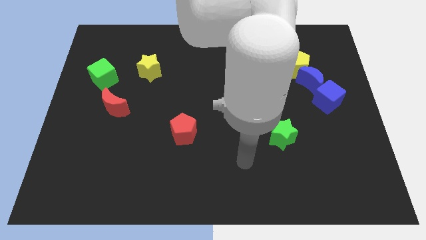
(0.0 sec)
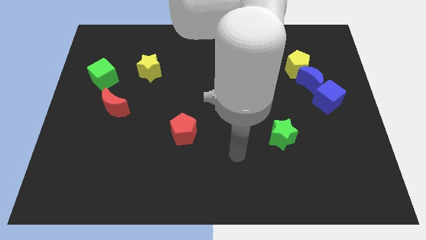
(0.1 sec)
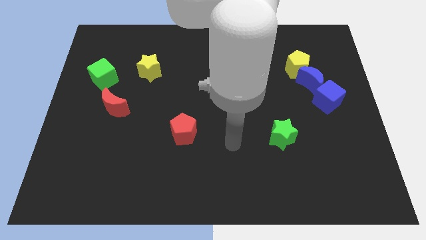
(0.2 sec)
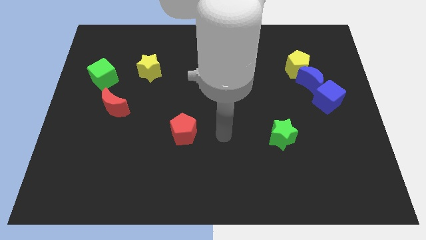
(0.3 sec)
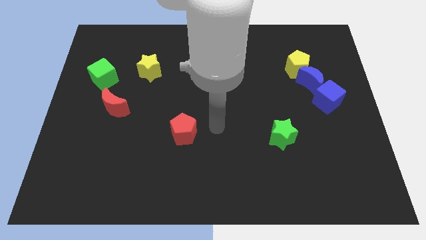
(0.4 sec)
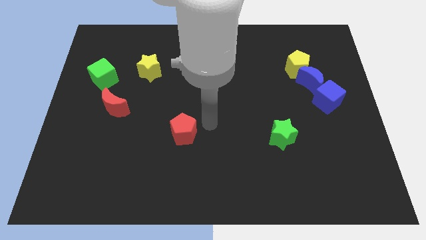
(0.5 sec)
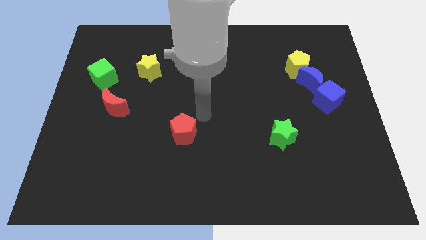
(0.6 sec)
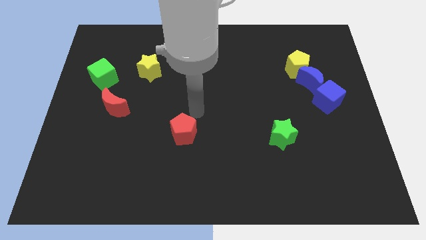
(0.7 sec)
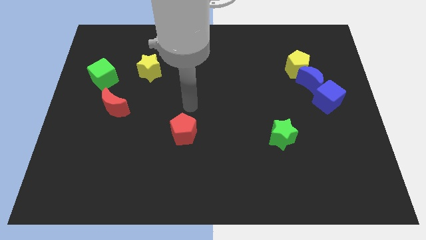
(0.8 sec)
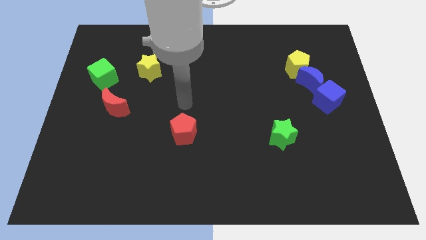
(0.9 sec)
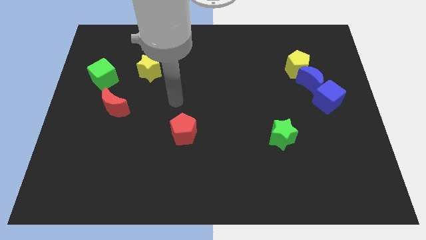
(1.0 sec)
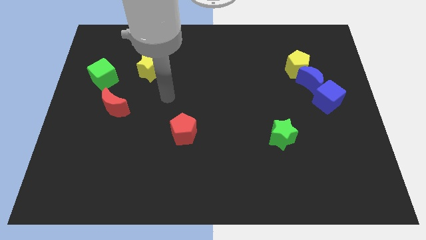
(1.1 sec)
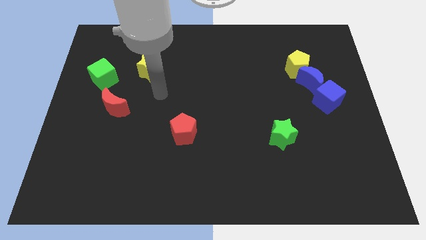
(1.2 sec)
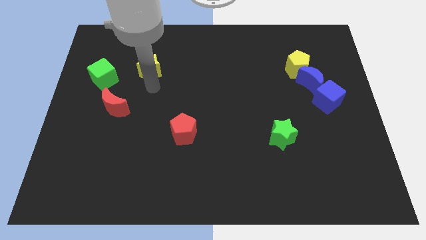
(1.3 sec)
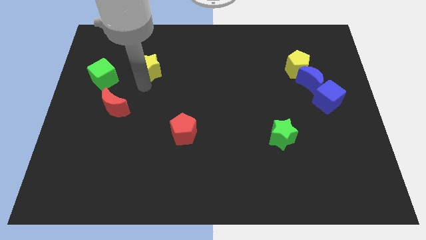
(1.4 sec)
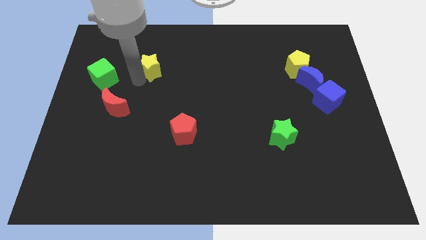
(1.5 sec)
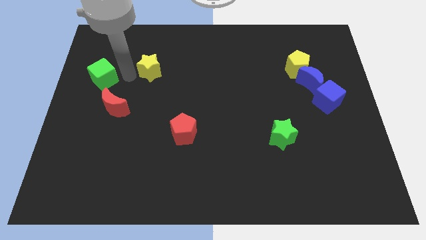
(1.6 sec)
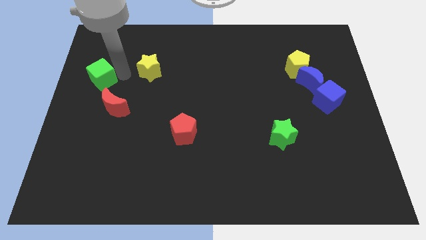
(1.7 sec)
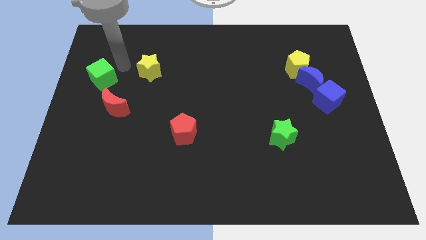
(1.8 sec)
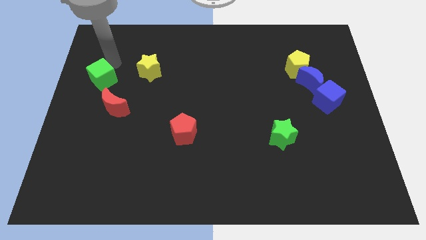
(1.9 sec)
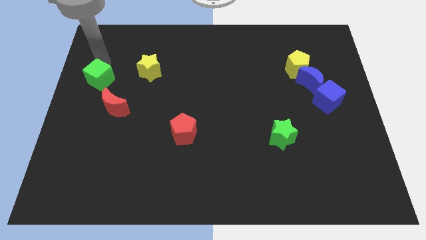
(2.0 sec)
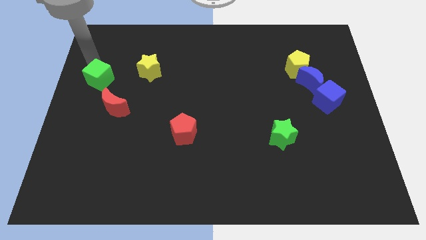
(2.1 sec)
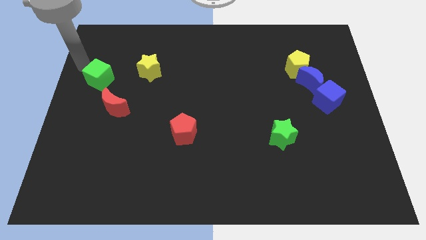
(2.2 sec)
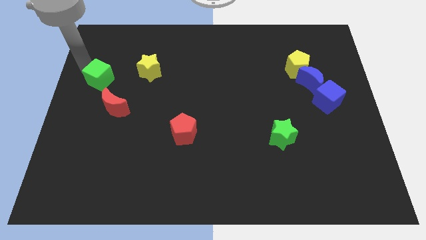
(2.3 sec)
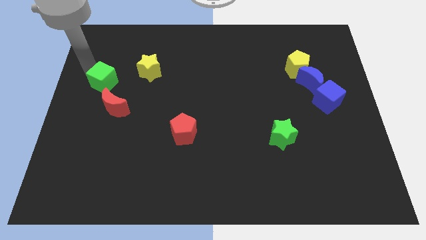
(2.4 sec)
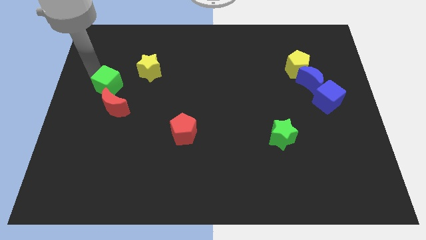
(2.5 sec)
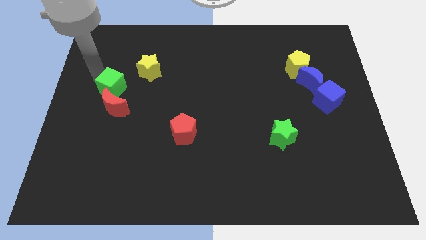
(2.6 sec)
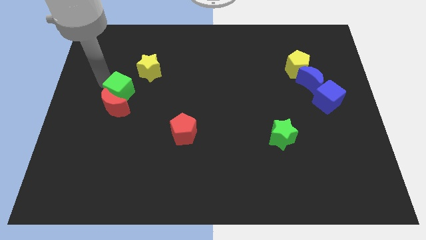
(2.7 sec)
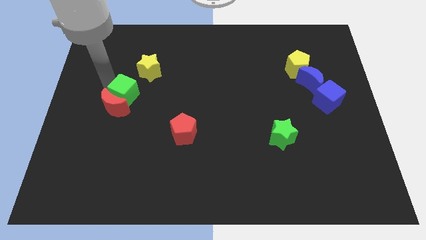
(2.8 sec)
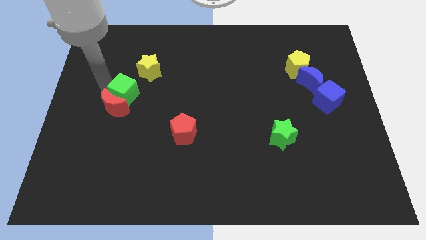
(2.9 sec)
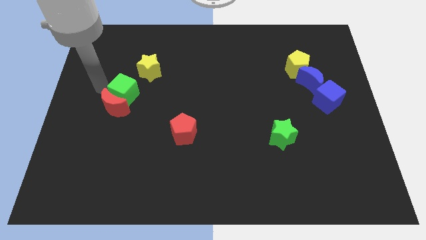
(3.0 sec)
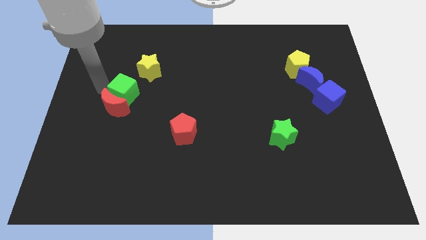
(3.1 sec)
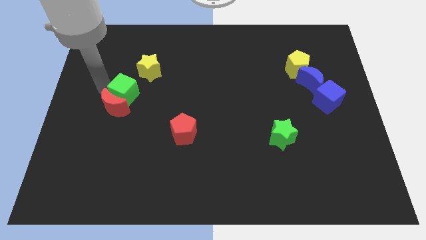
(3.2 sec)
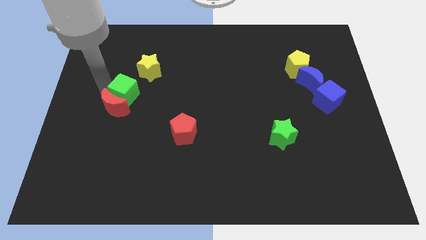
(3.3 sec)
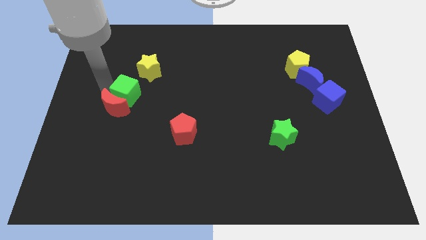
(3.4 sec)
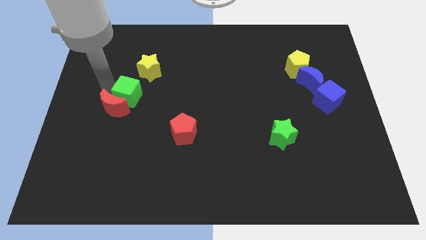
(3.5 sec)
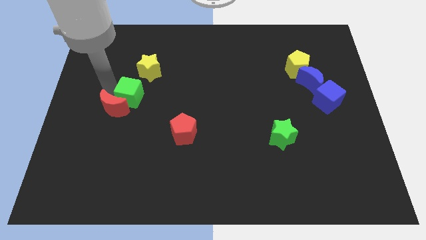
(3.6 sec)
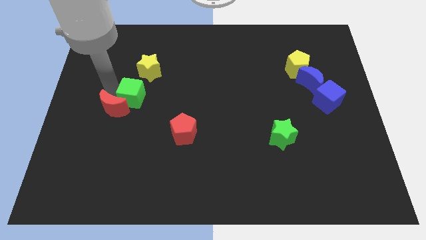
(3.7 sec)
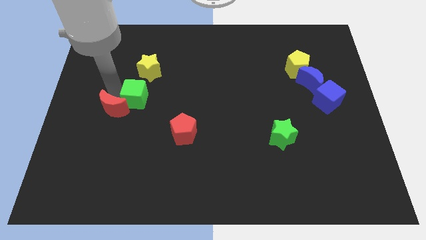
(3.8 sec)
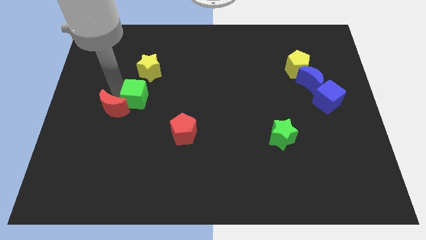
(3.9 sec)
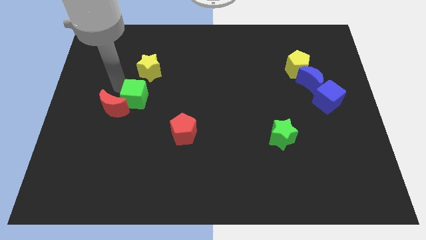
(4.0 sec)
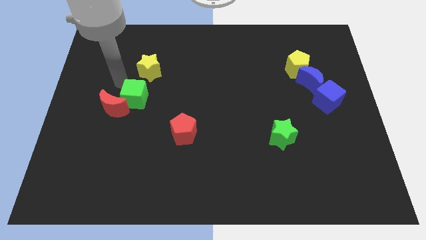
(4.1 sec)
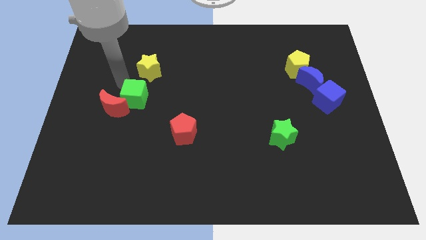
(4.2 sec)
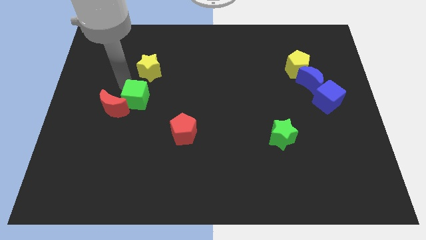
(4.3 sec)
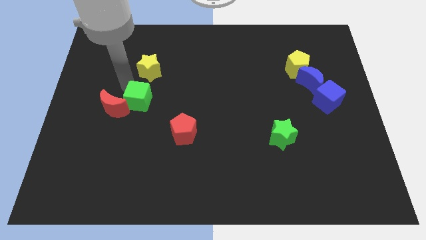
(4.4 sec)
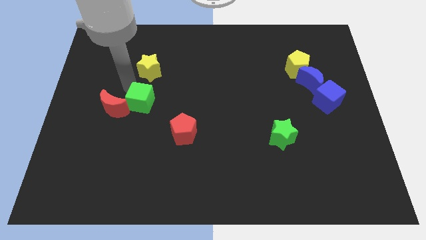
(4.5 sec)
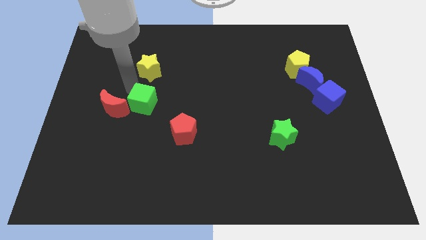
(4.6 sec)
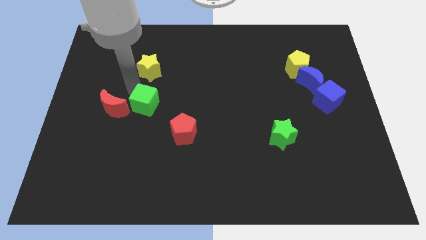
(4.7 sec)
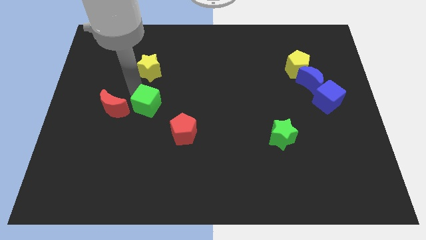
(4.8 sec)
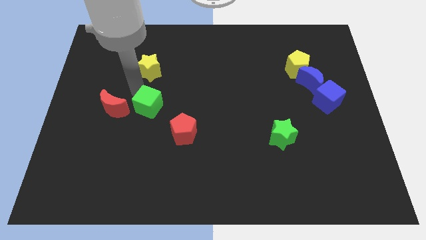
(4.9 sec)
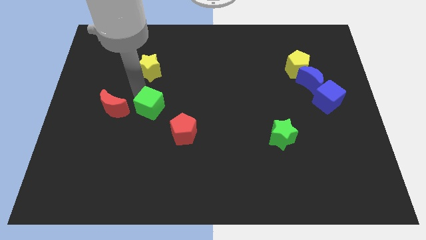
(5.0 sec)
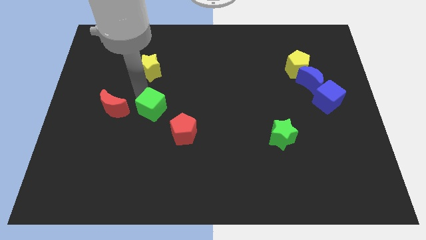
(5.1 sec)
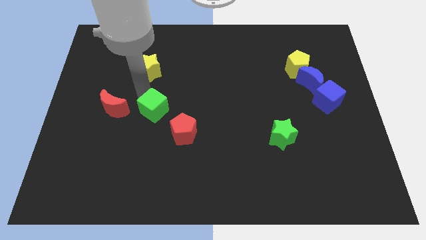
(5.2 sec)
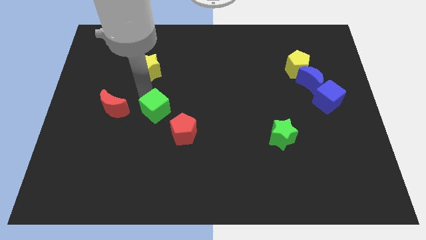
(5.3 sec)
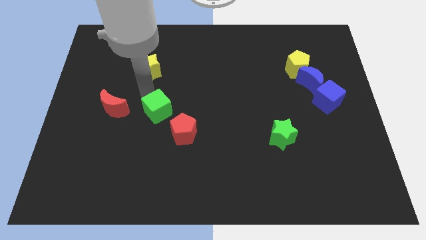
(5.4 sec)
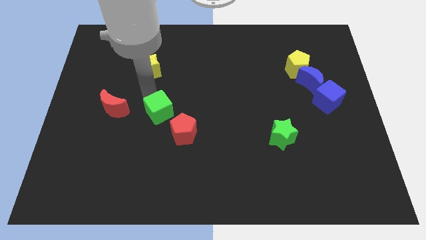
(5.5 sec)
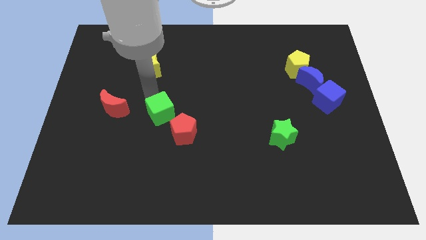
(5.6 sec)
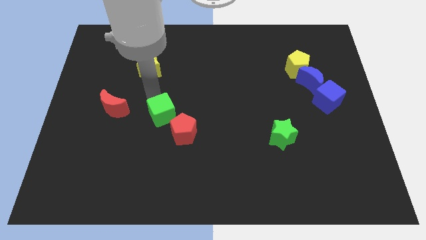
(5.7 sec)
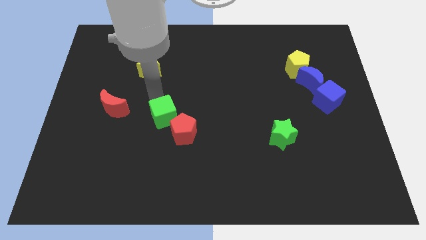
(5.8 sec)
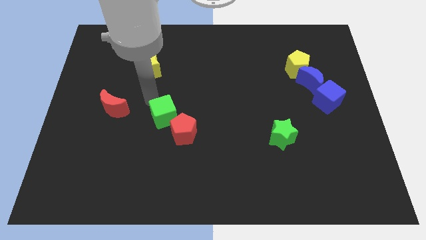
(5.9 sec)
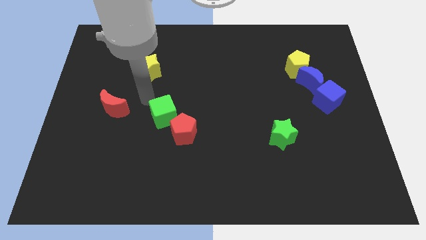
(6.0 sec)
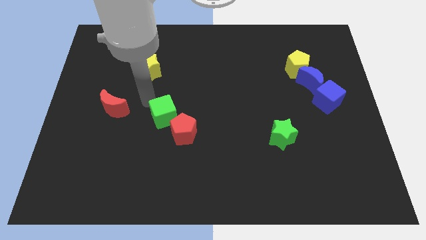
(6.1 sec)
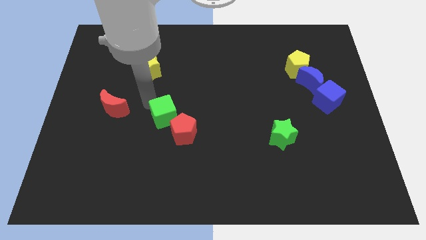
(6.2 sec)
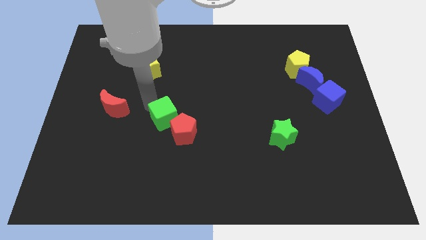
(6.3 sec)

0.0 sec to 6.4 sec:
push the green cube next to the red pentagon

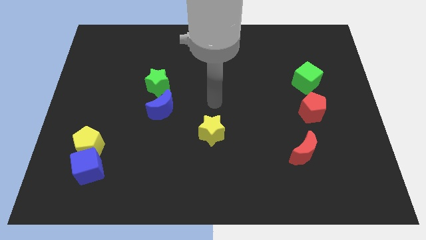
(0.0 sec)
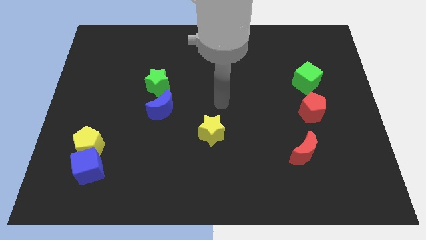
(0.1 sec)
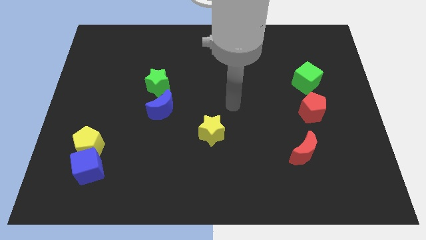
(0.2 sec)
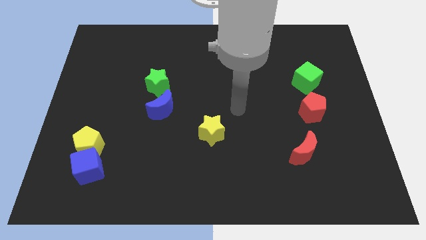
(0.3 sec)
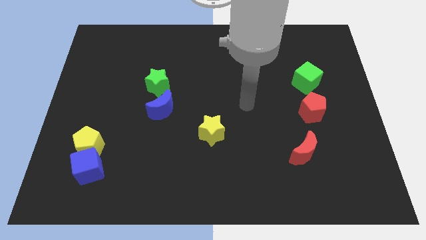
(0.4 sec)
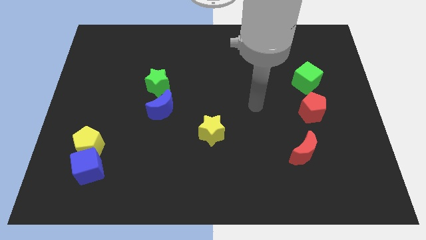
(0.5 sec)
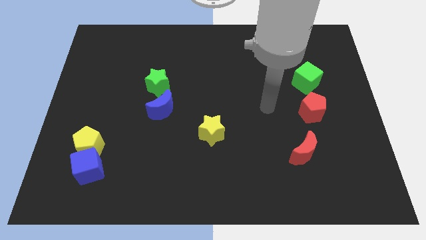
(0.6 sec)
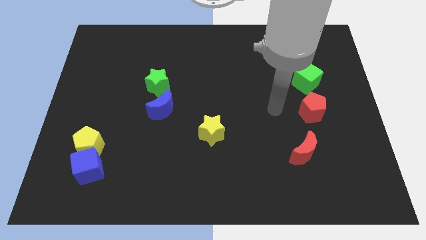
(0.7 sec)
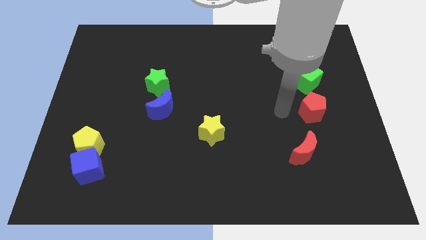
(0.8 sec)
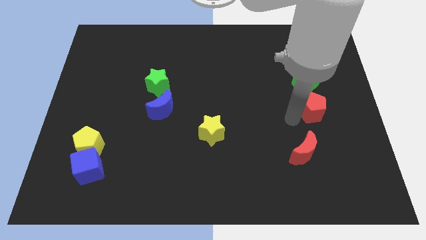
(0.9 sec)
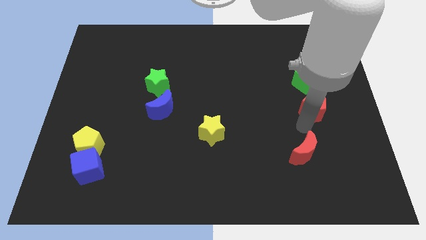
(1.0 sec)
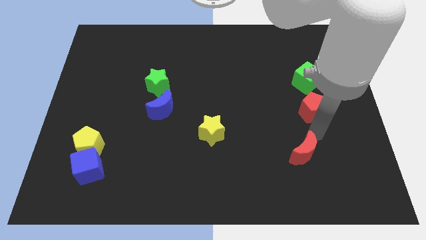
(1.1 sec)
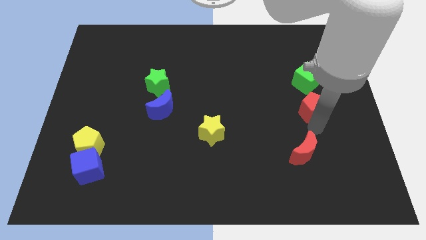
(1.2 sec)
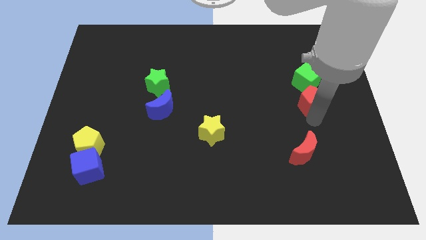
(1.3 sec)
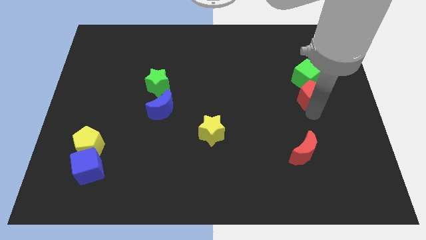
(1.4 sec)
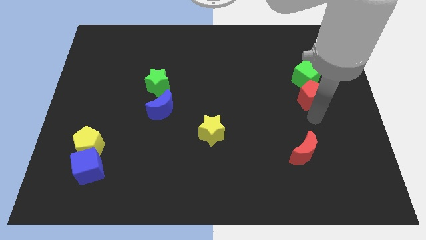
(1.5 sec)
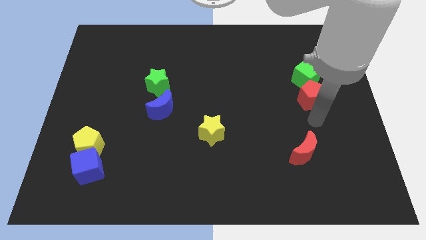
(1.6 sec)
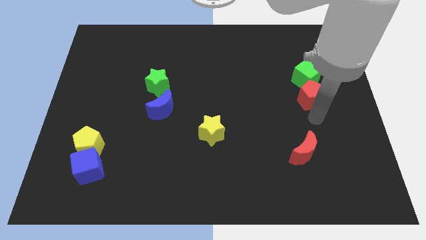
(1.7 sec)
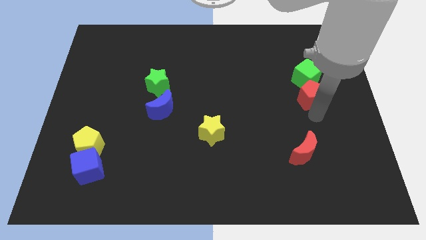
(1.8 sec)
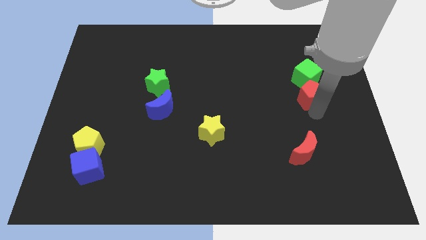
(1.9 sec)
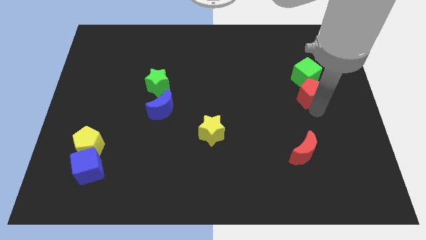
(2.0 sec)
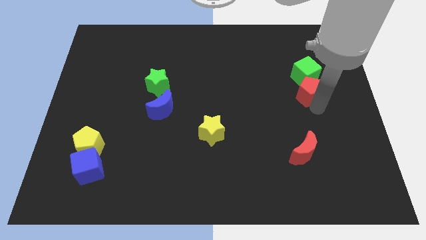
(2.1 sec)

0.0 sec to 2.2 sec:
put the red pentagon close to the green cube
